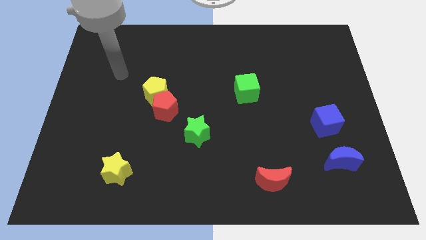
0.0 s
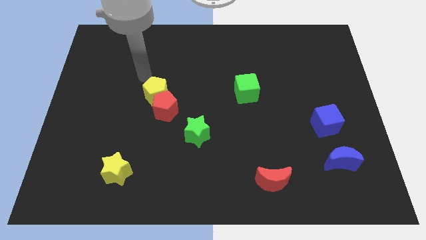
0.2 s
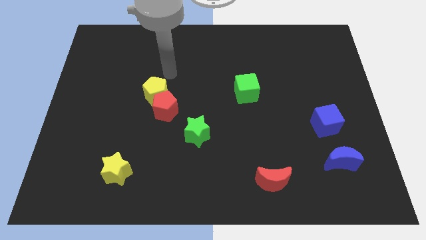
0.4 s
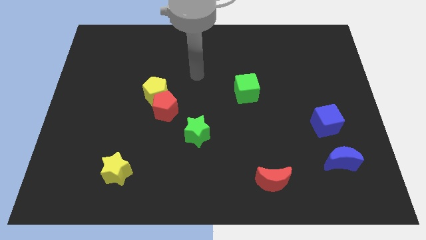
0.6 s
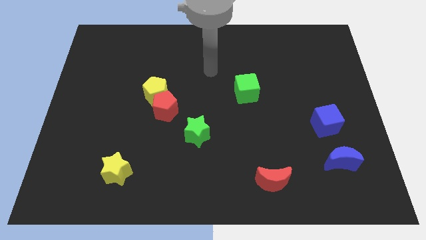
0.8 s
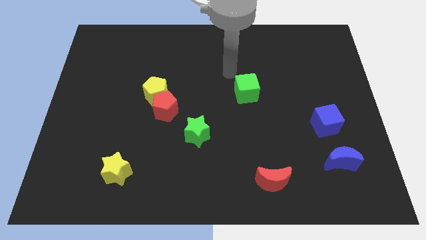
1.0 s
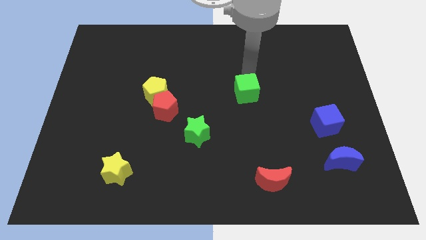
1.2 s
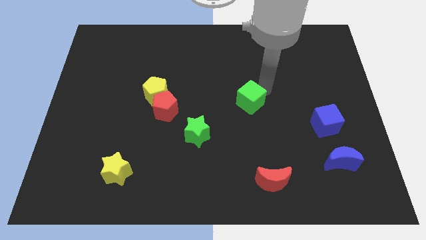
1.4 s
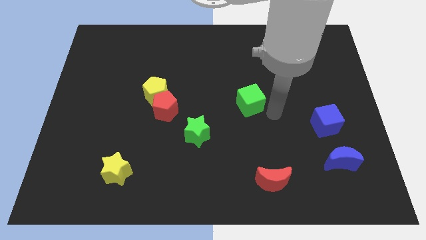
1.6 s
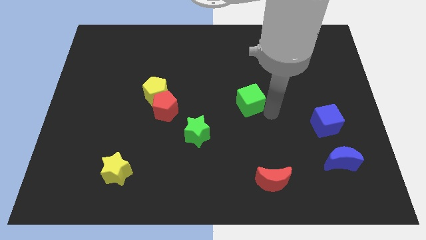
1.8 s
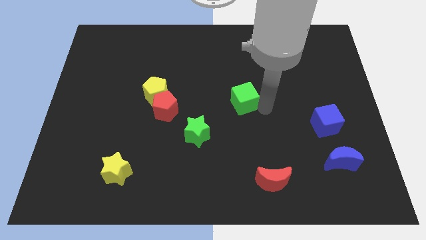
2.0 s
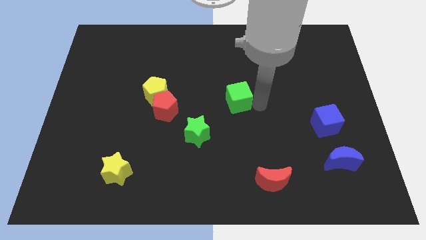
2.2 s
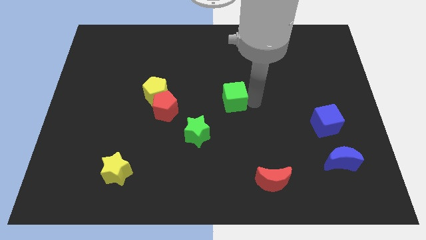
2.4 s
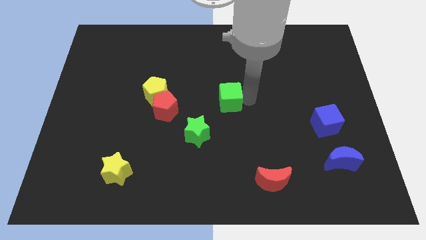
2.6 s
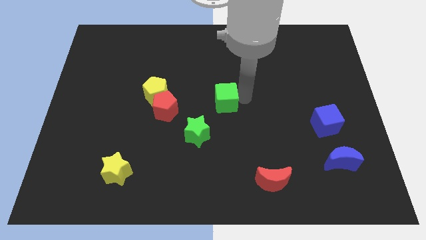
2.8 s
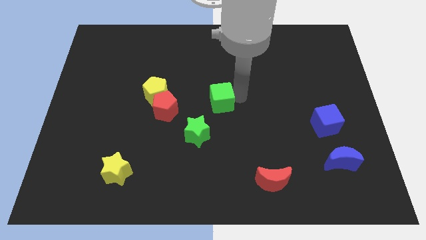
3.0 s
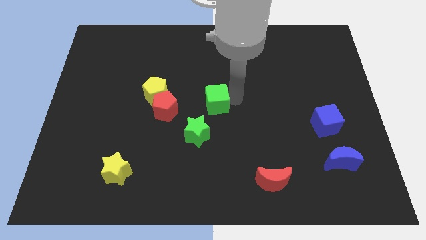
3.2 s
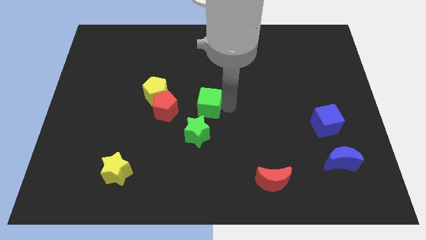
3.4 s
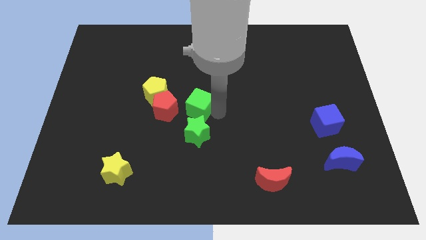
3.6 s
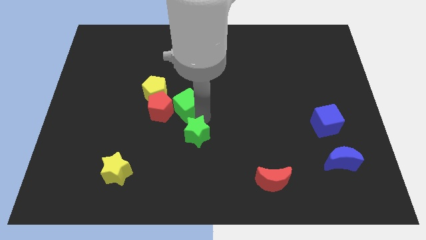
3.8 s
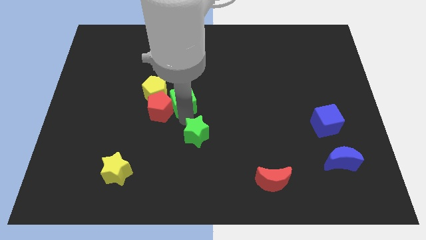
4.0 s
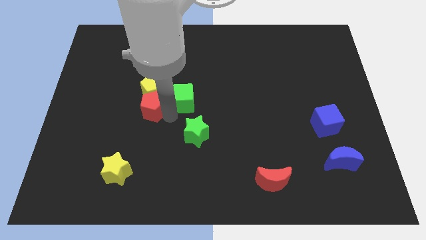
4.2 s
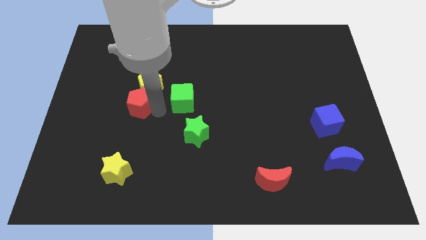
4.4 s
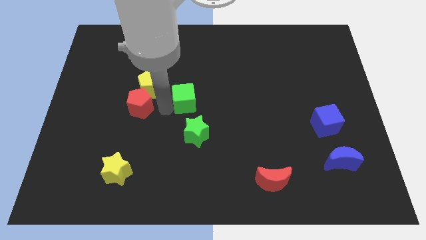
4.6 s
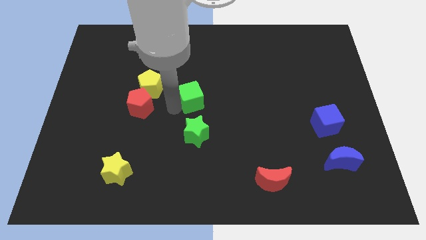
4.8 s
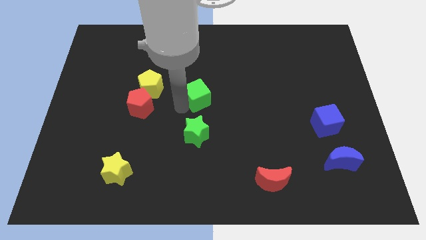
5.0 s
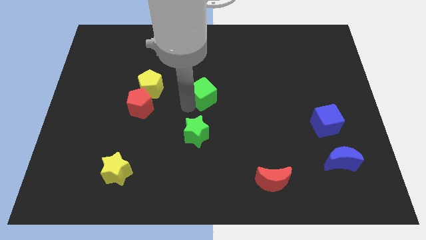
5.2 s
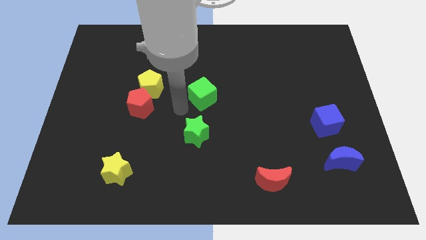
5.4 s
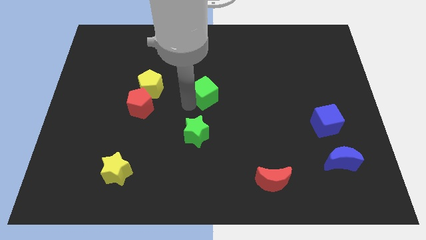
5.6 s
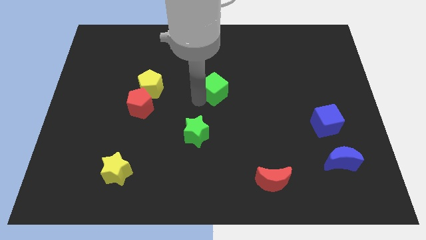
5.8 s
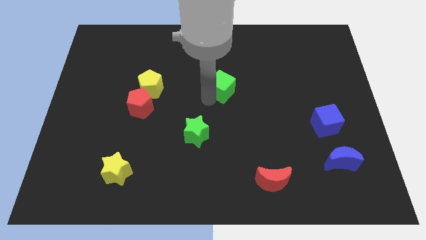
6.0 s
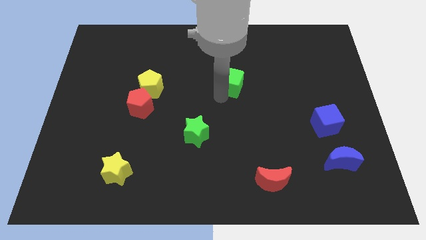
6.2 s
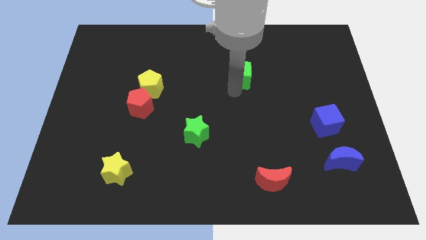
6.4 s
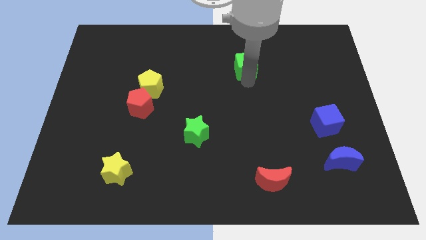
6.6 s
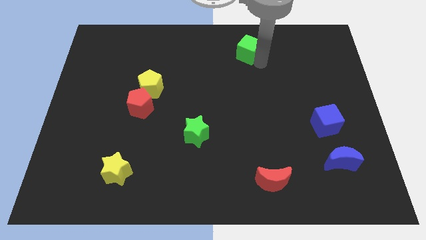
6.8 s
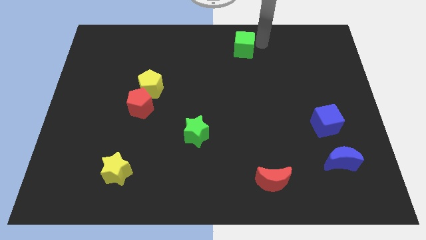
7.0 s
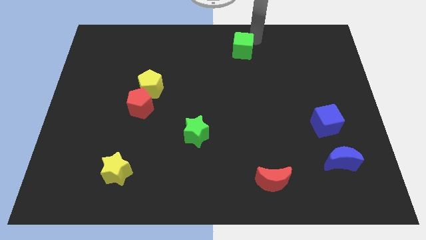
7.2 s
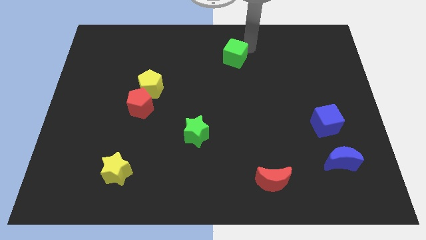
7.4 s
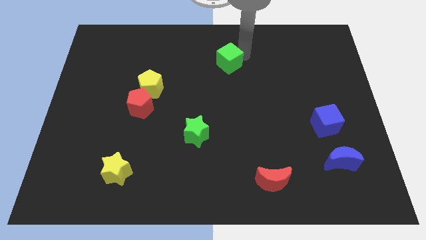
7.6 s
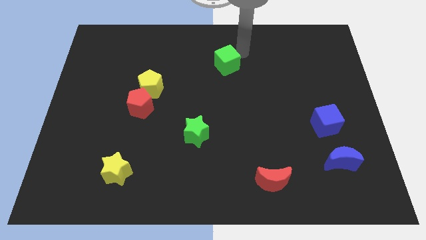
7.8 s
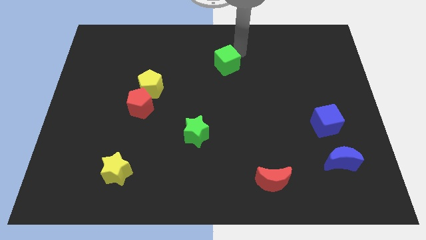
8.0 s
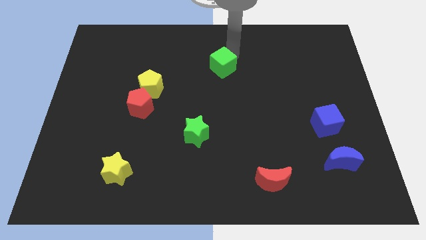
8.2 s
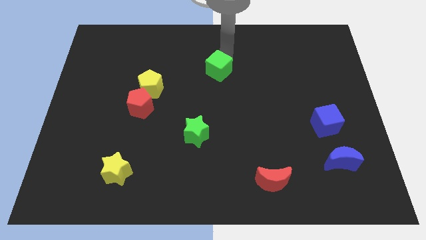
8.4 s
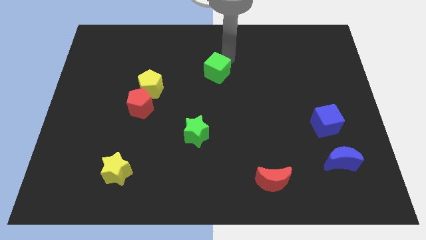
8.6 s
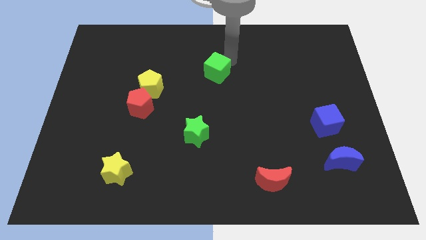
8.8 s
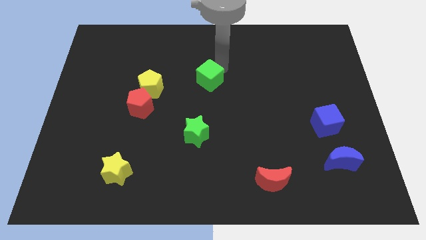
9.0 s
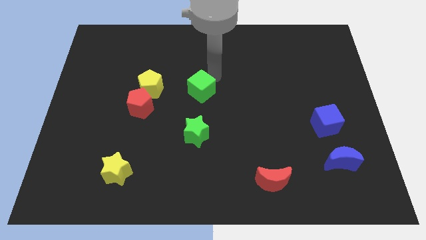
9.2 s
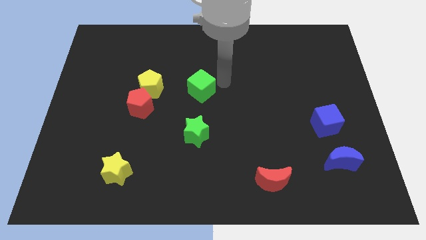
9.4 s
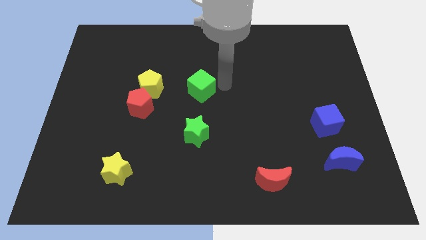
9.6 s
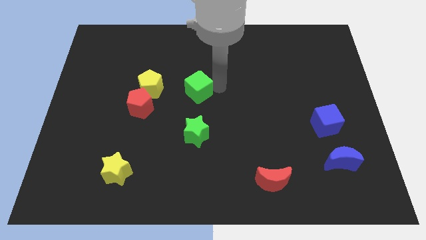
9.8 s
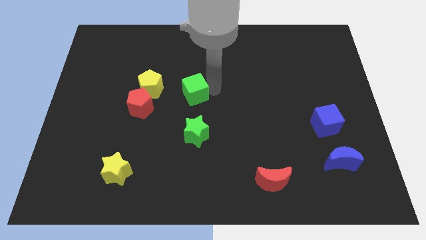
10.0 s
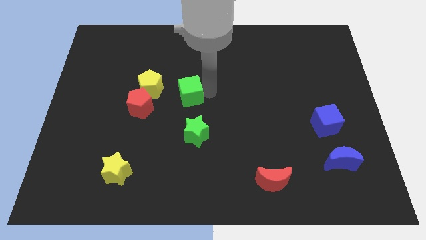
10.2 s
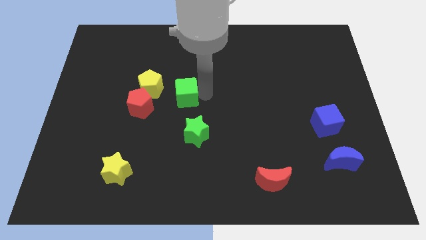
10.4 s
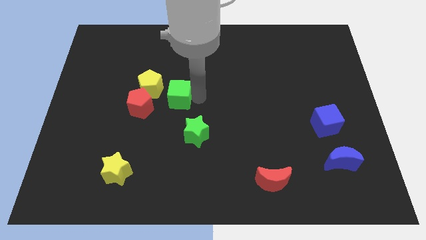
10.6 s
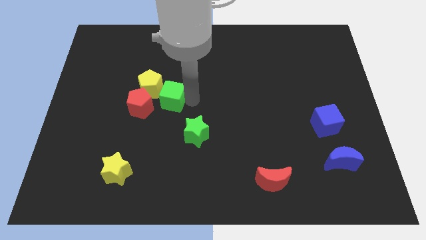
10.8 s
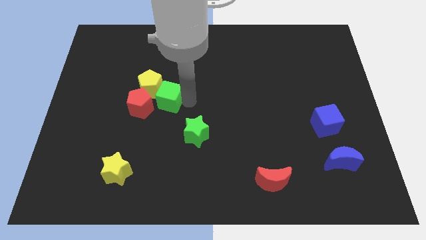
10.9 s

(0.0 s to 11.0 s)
move the green cube close to the yellow pentagon

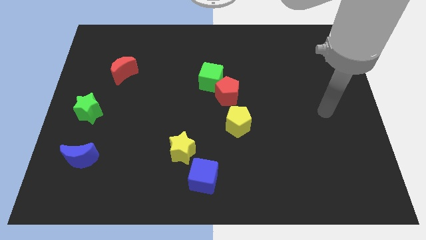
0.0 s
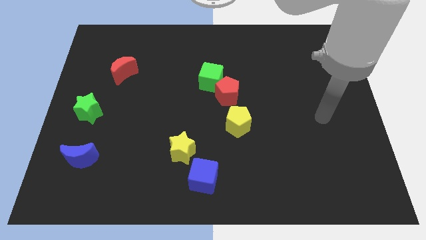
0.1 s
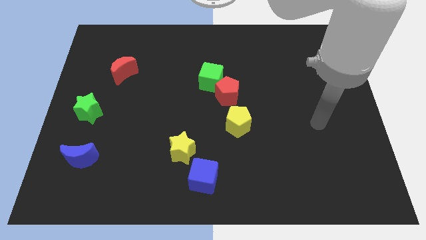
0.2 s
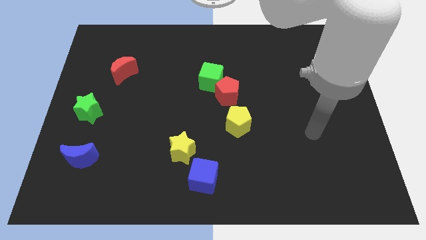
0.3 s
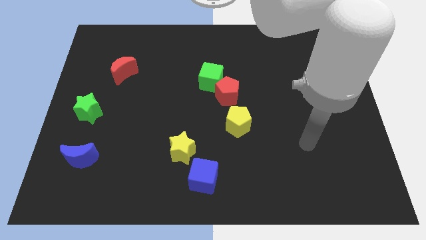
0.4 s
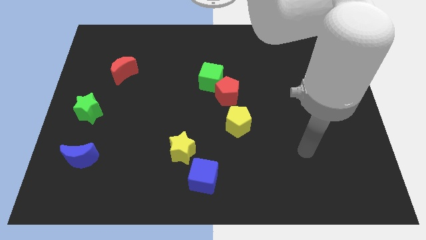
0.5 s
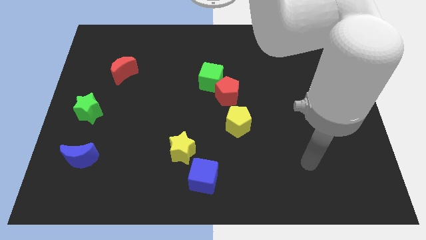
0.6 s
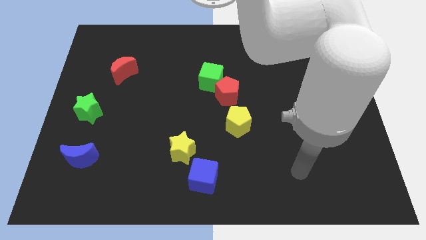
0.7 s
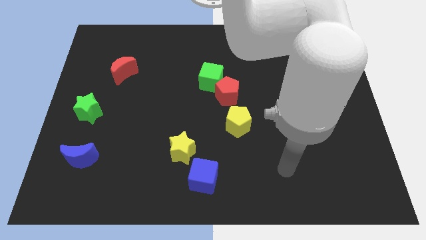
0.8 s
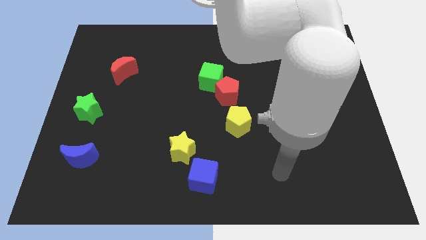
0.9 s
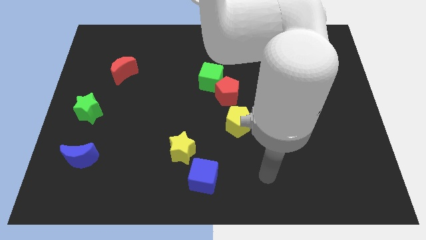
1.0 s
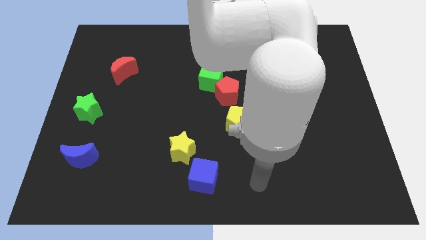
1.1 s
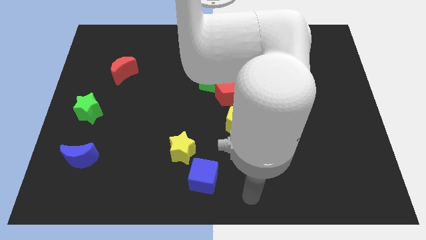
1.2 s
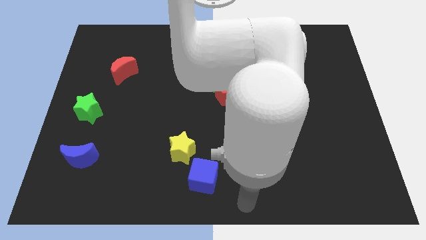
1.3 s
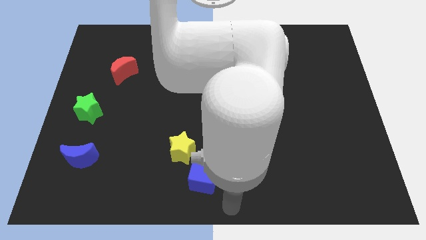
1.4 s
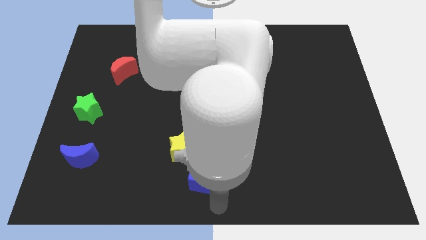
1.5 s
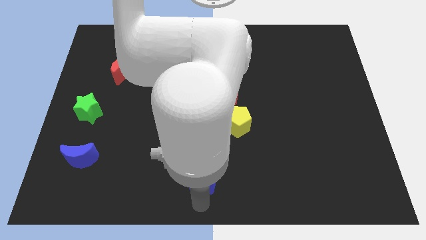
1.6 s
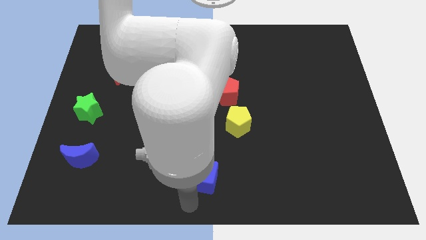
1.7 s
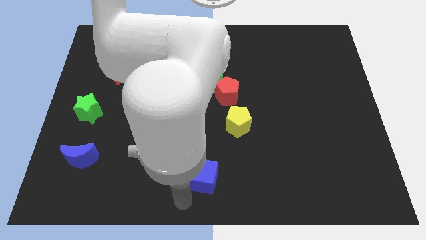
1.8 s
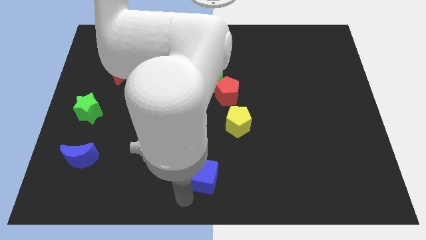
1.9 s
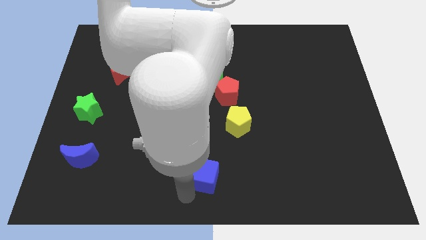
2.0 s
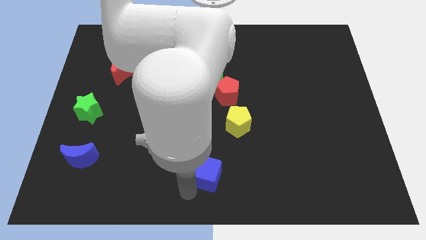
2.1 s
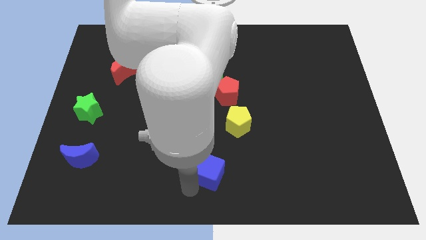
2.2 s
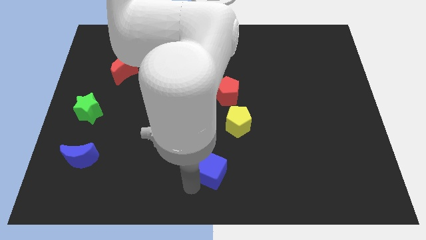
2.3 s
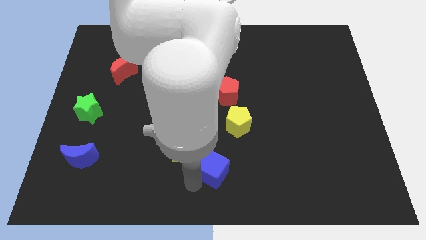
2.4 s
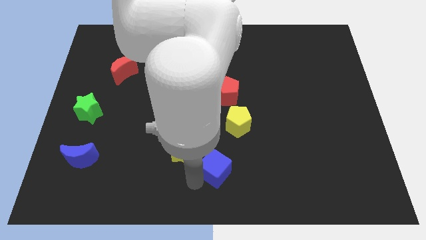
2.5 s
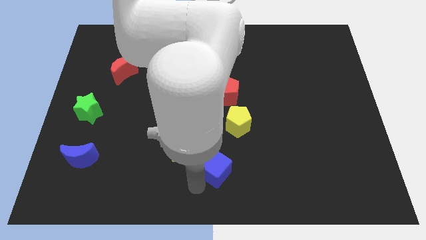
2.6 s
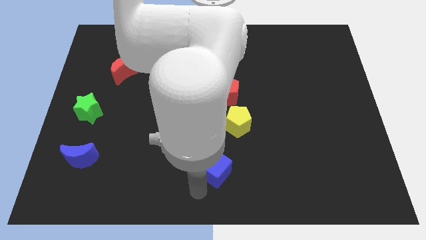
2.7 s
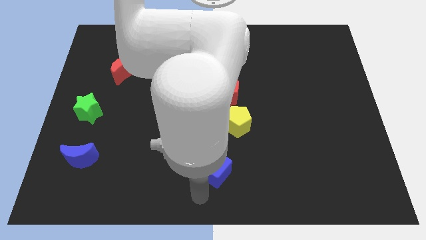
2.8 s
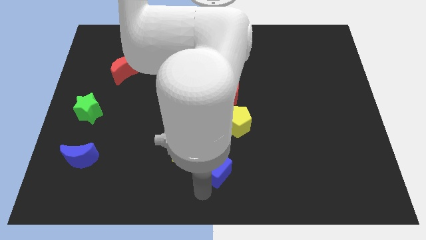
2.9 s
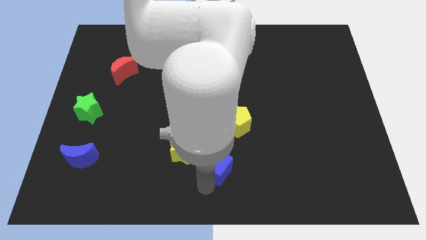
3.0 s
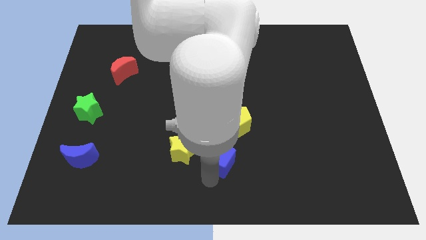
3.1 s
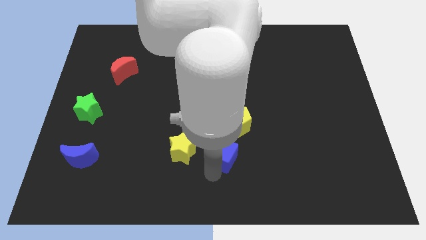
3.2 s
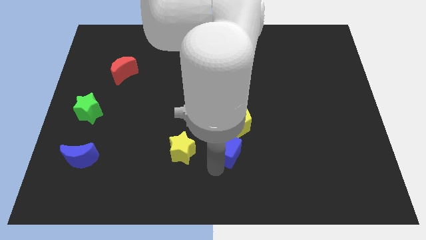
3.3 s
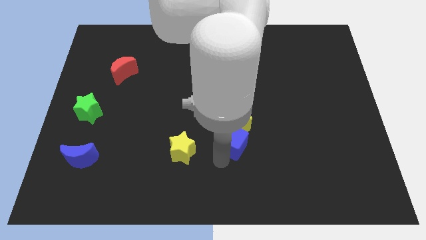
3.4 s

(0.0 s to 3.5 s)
push the blue cube next to the yellow pentagon
